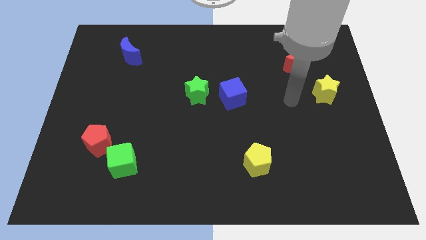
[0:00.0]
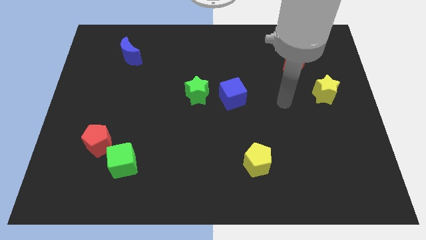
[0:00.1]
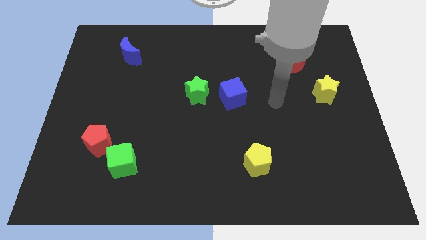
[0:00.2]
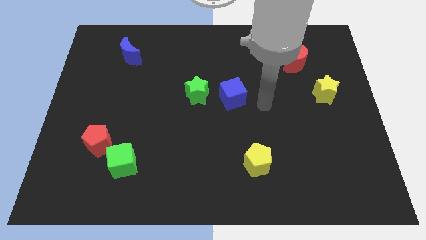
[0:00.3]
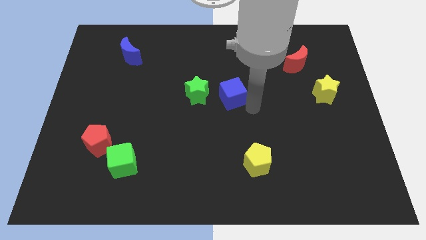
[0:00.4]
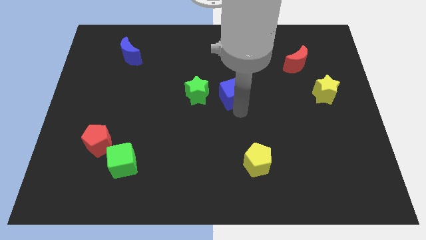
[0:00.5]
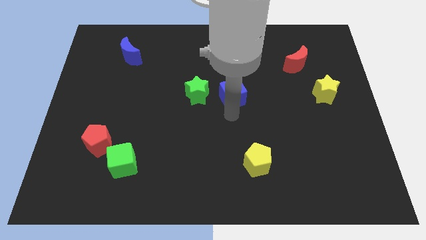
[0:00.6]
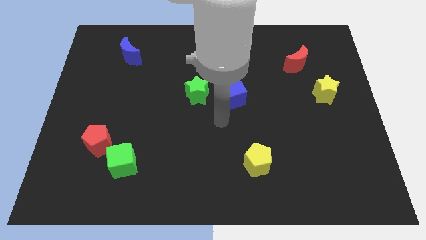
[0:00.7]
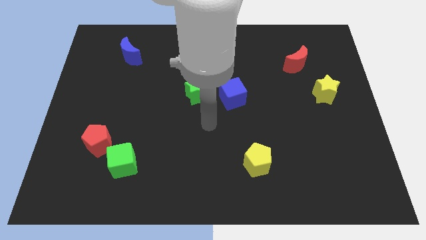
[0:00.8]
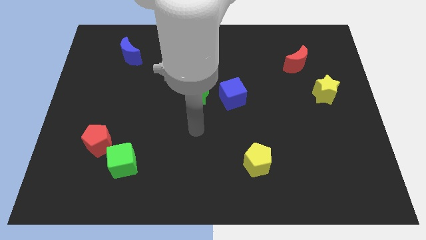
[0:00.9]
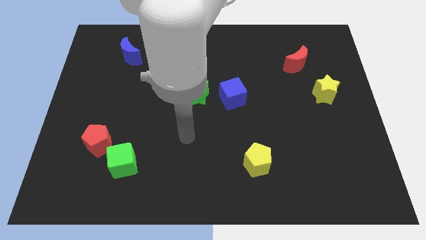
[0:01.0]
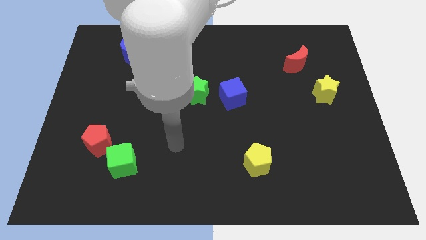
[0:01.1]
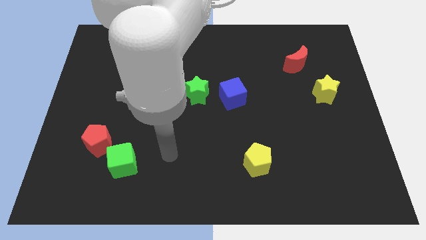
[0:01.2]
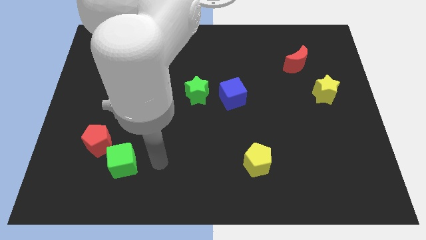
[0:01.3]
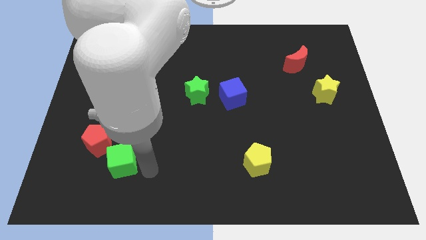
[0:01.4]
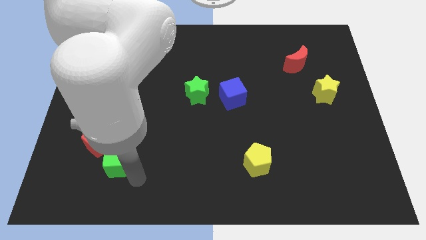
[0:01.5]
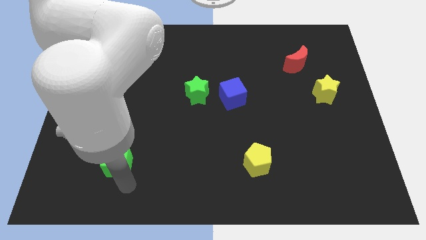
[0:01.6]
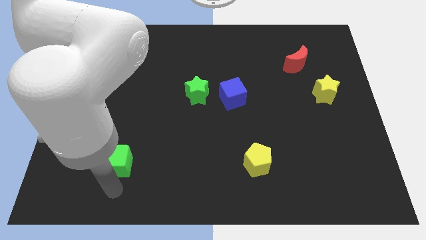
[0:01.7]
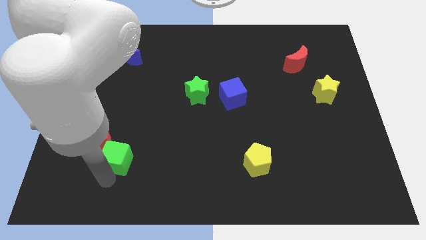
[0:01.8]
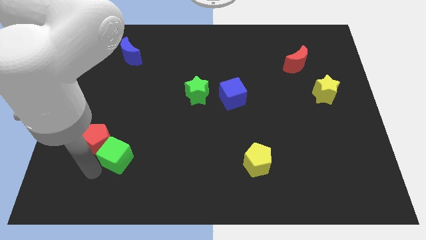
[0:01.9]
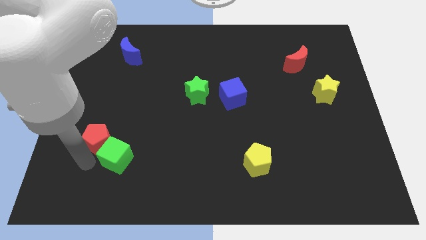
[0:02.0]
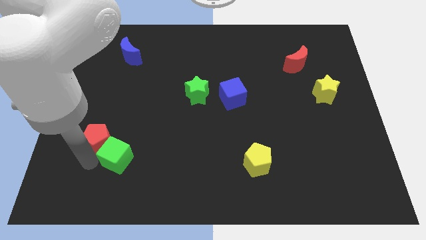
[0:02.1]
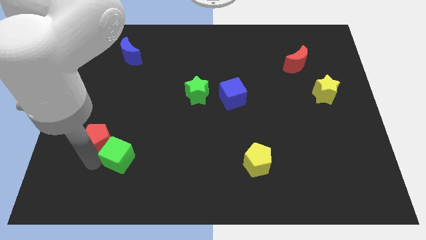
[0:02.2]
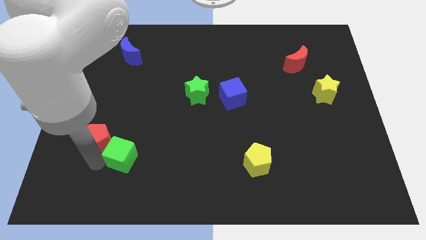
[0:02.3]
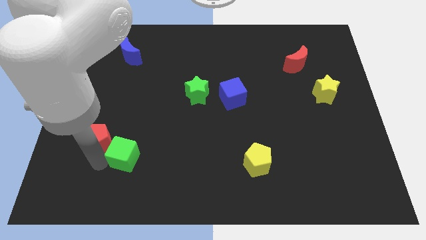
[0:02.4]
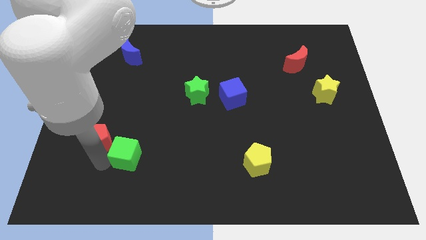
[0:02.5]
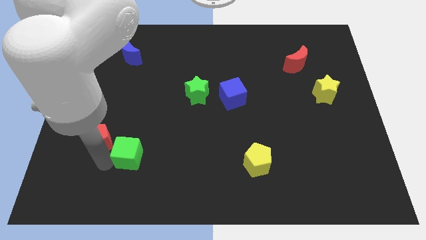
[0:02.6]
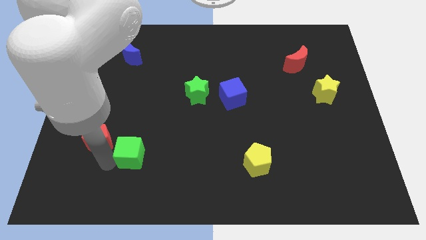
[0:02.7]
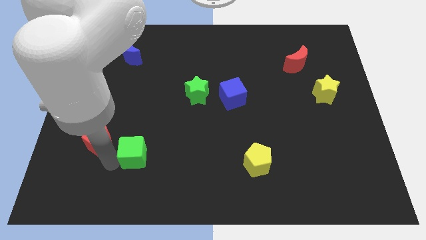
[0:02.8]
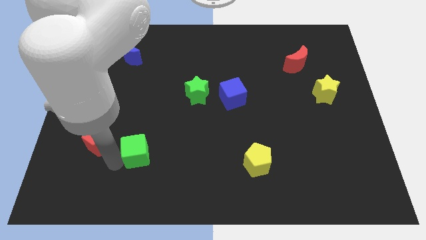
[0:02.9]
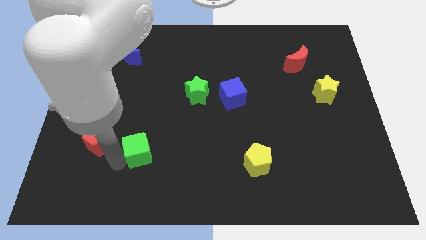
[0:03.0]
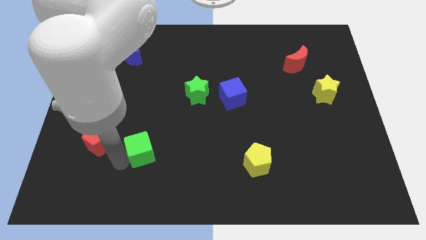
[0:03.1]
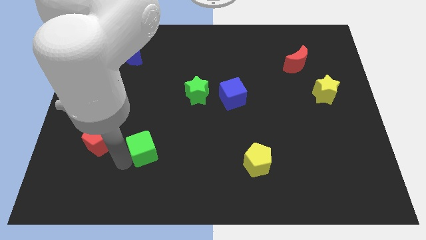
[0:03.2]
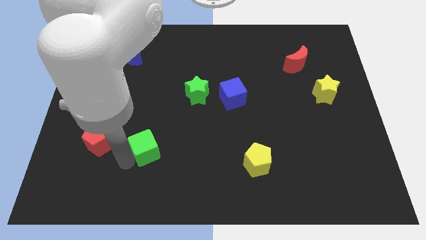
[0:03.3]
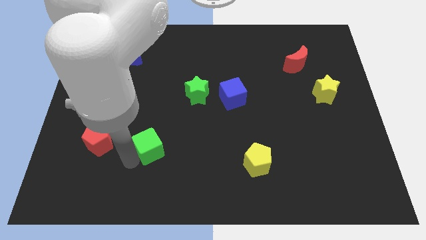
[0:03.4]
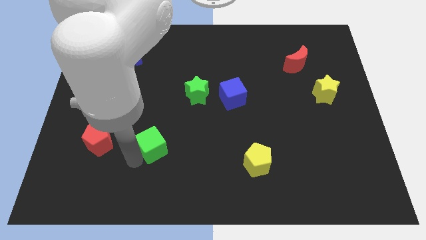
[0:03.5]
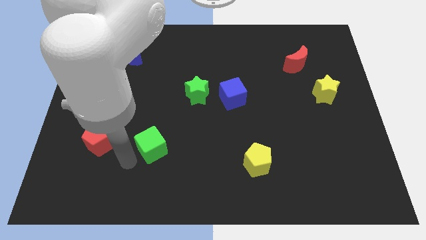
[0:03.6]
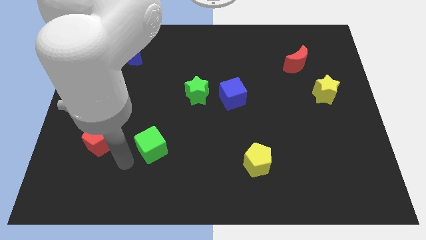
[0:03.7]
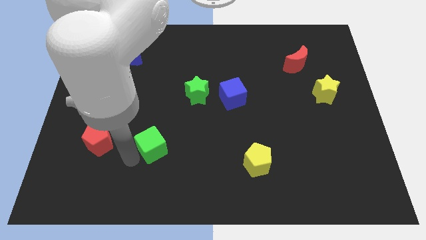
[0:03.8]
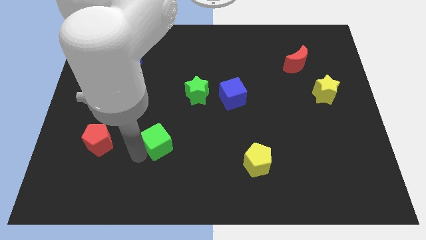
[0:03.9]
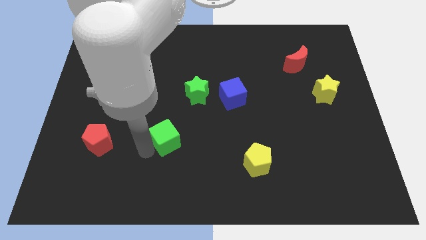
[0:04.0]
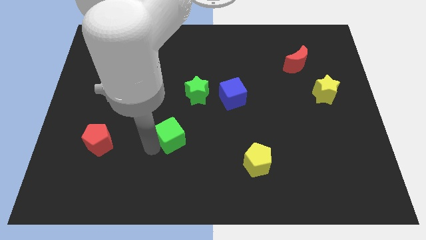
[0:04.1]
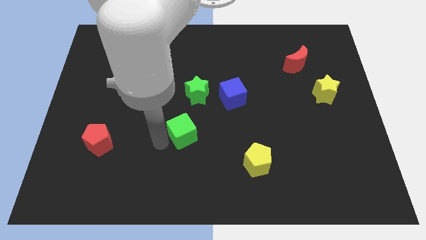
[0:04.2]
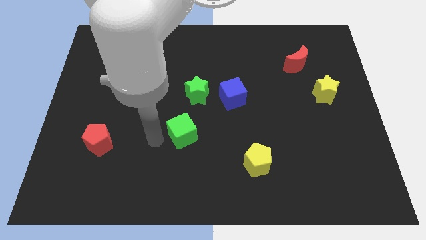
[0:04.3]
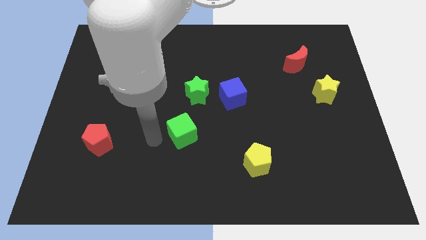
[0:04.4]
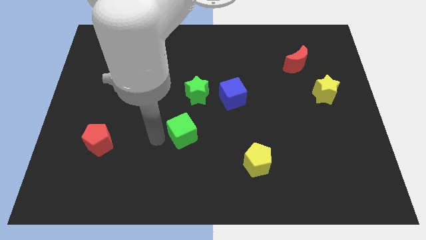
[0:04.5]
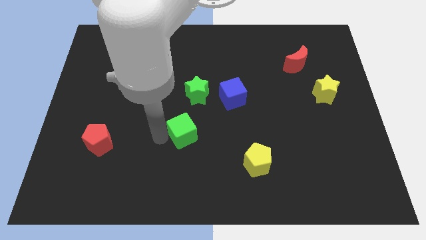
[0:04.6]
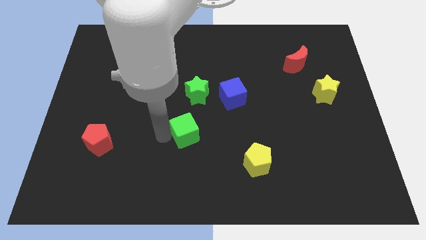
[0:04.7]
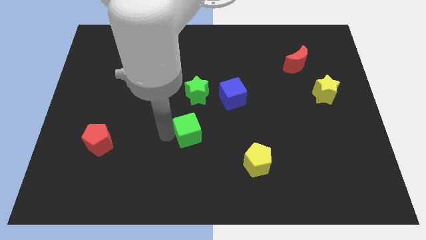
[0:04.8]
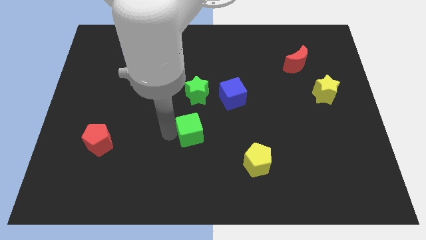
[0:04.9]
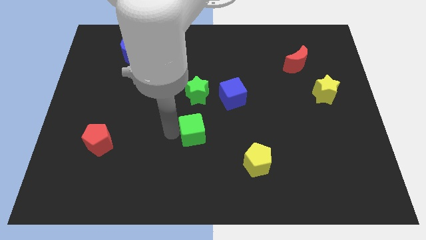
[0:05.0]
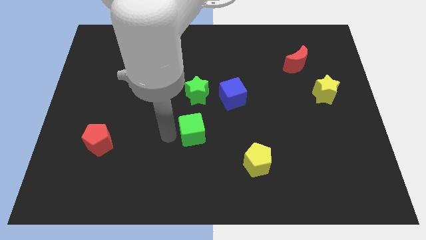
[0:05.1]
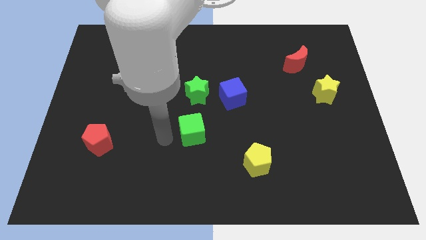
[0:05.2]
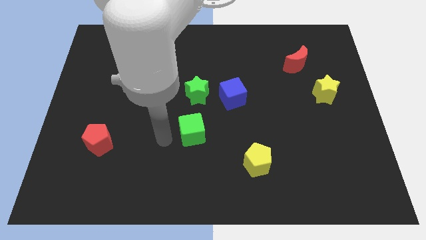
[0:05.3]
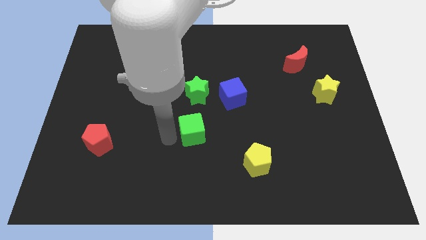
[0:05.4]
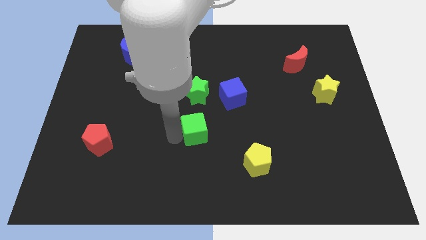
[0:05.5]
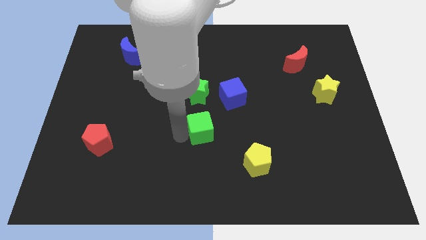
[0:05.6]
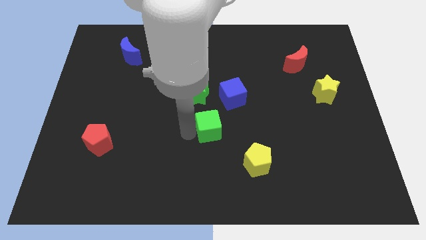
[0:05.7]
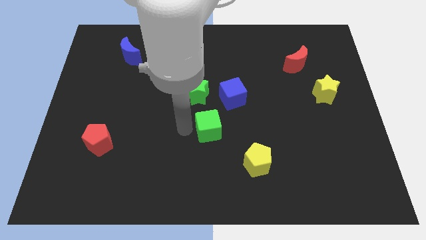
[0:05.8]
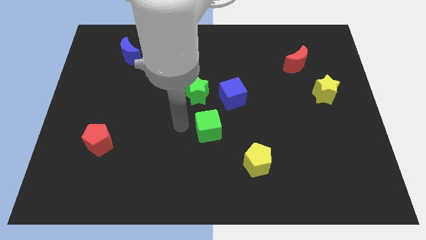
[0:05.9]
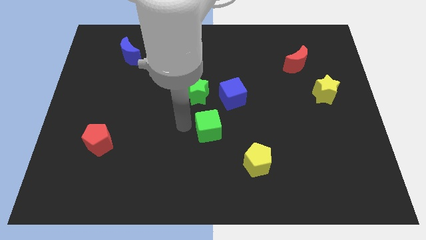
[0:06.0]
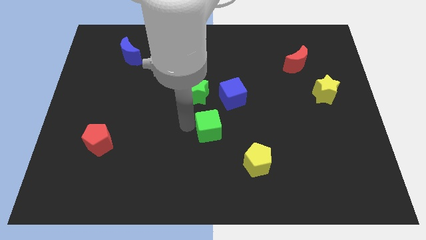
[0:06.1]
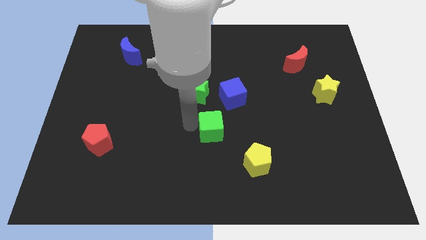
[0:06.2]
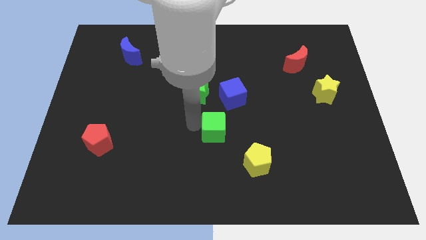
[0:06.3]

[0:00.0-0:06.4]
push the green cube below the blue cube

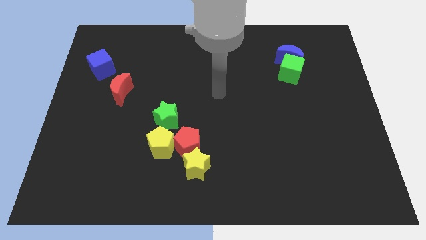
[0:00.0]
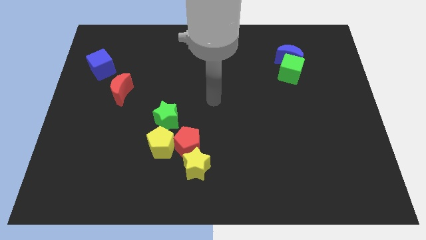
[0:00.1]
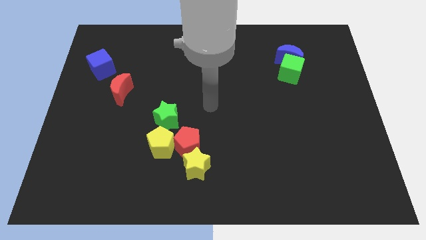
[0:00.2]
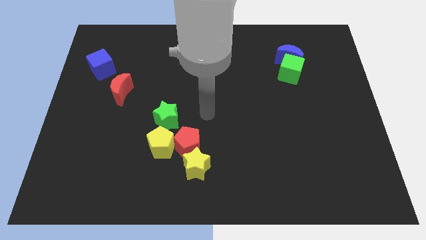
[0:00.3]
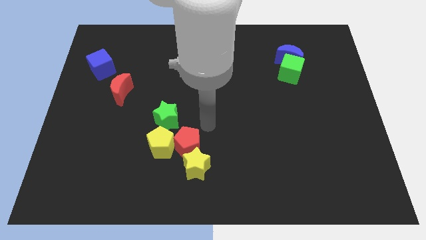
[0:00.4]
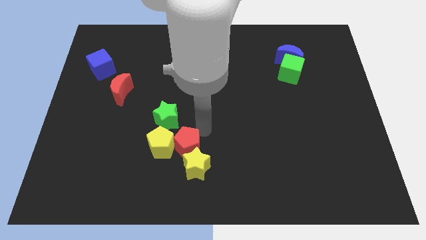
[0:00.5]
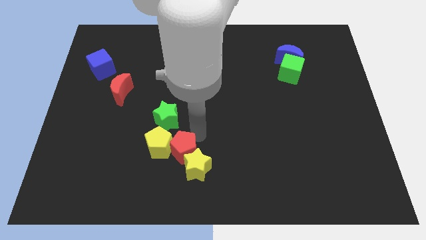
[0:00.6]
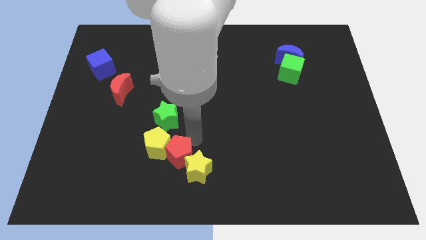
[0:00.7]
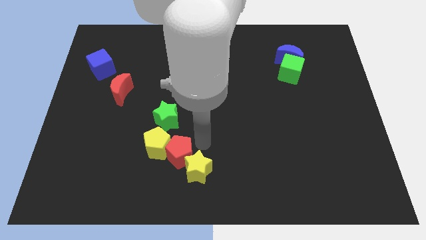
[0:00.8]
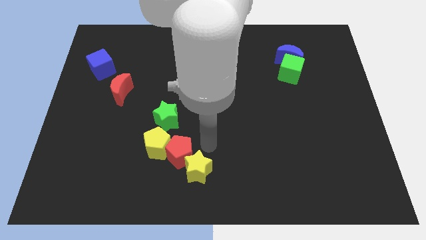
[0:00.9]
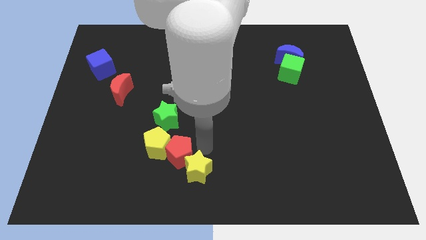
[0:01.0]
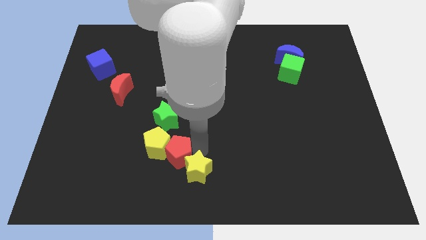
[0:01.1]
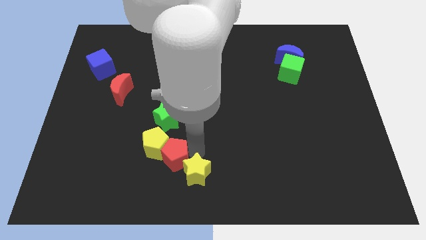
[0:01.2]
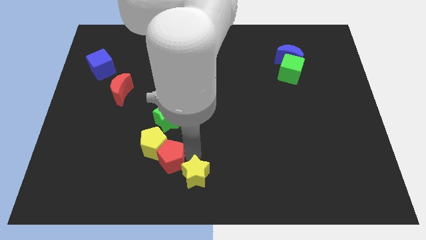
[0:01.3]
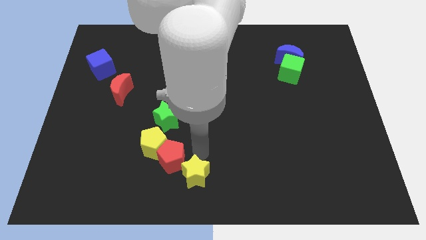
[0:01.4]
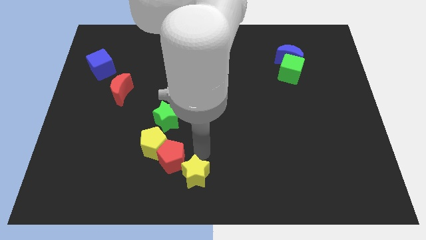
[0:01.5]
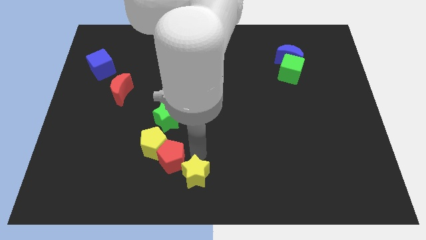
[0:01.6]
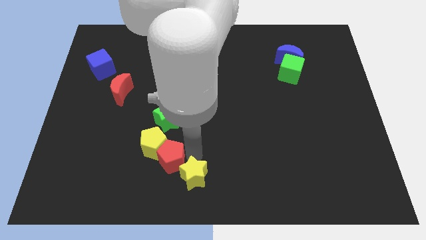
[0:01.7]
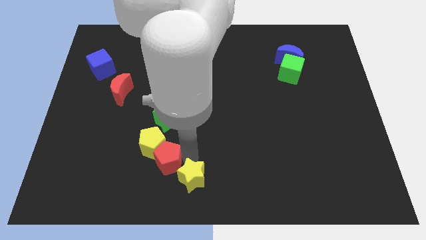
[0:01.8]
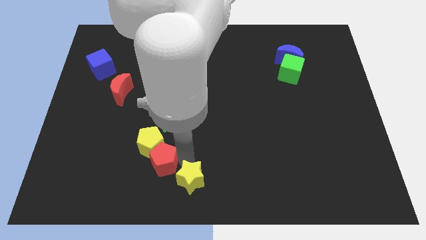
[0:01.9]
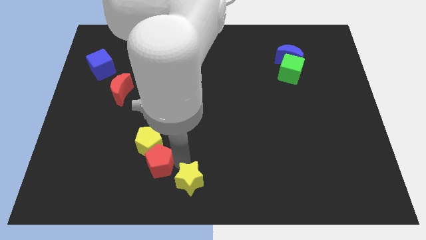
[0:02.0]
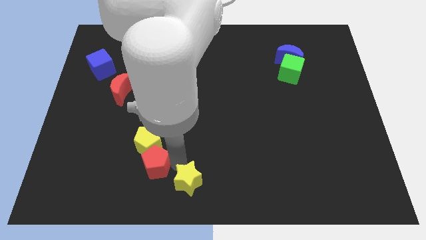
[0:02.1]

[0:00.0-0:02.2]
slide the red pentagon to the bottom left of the yellow pentagon
